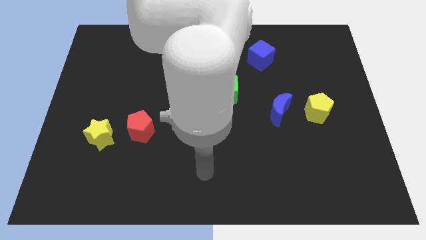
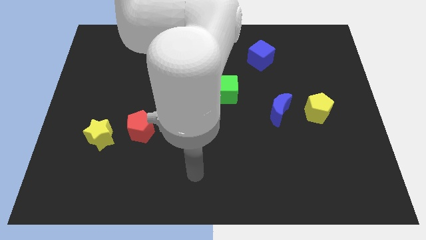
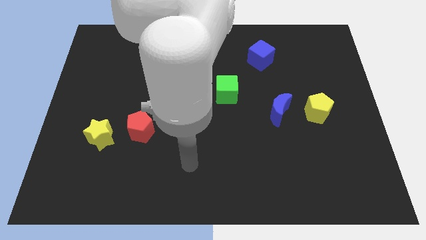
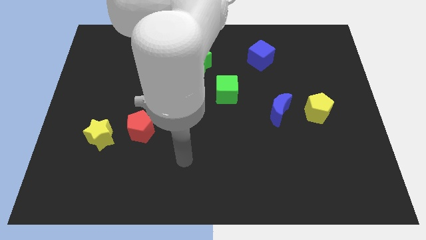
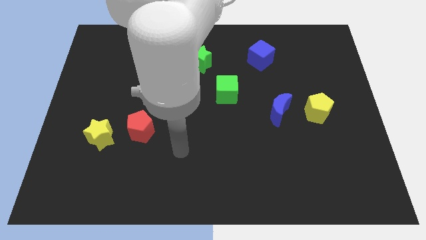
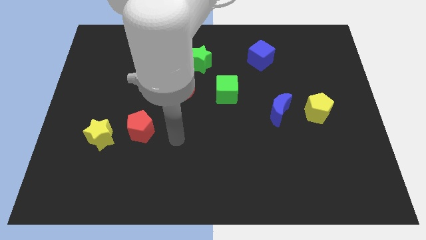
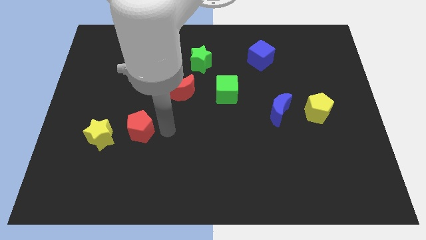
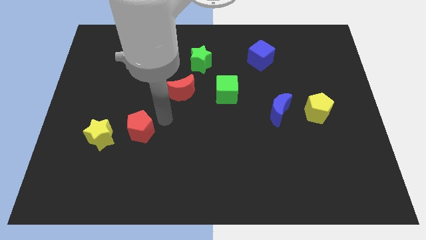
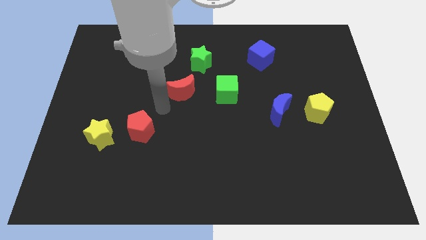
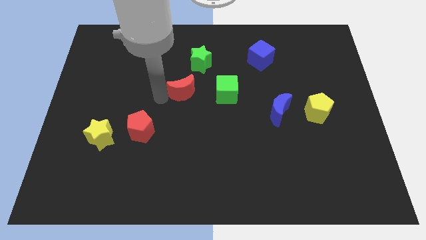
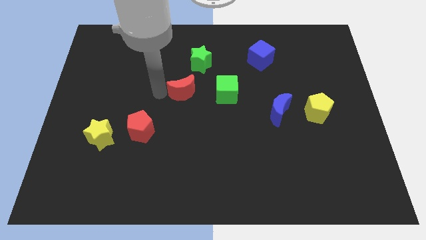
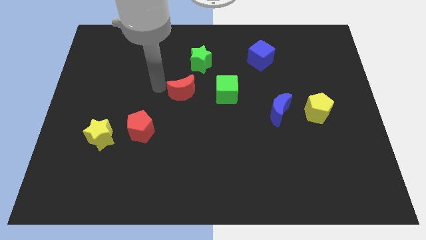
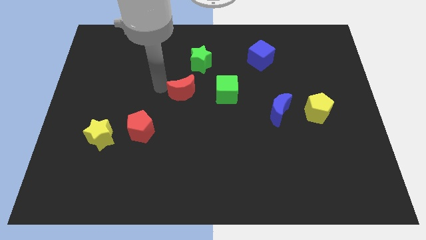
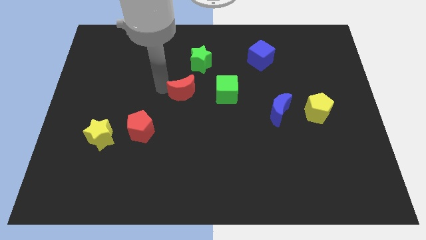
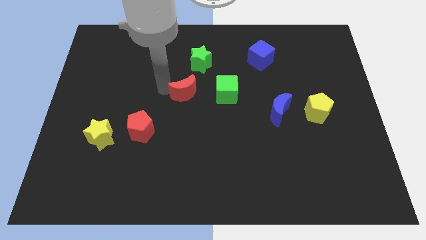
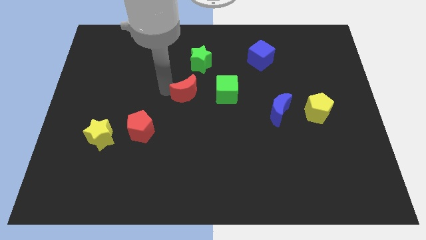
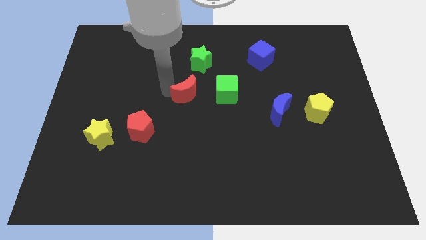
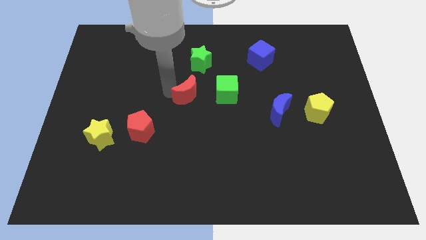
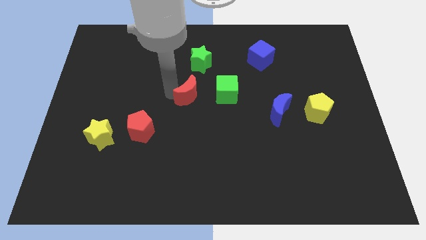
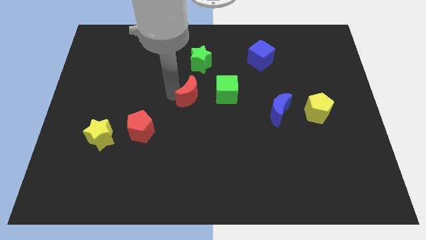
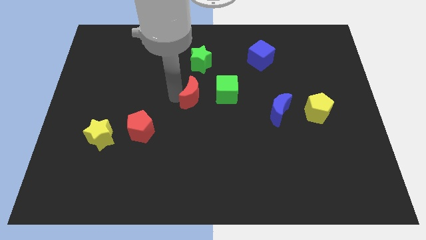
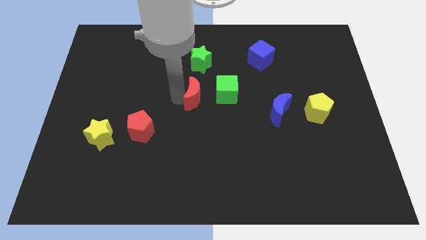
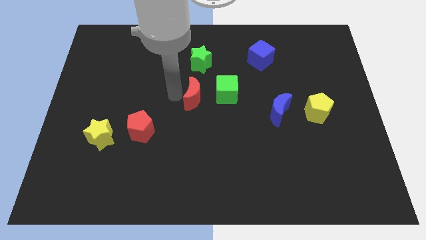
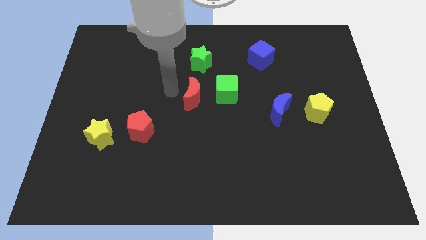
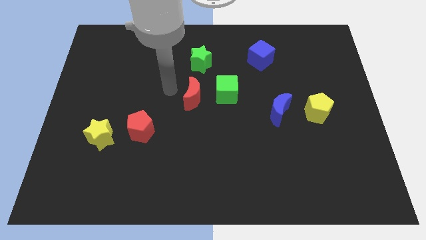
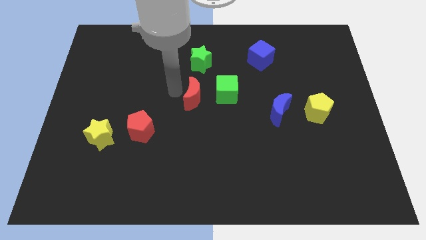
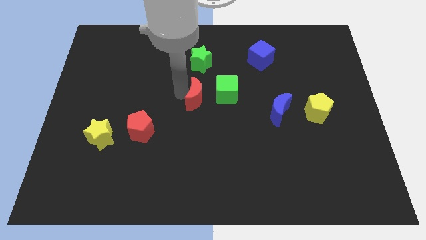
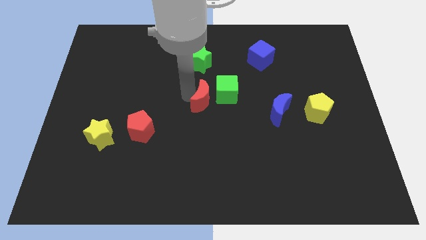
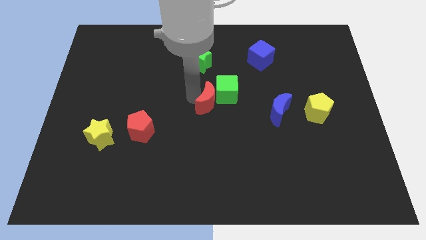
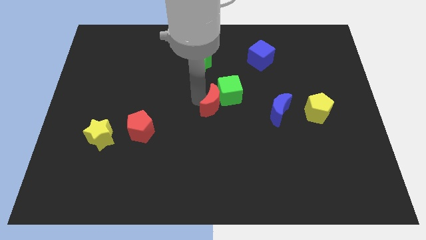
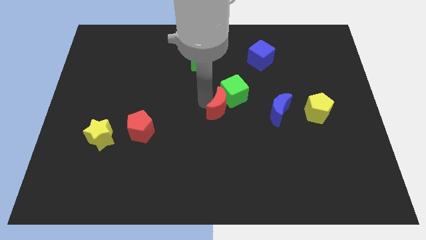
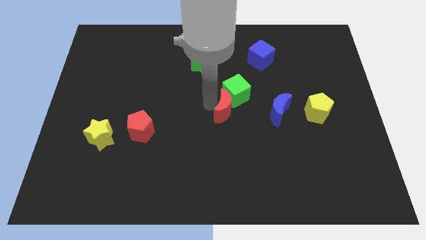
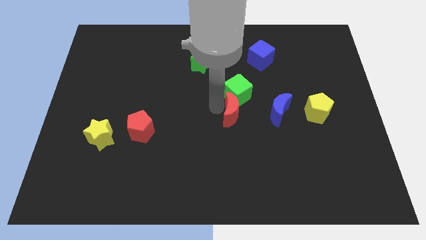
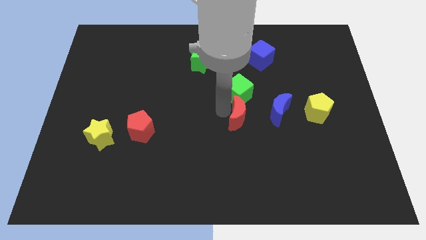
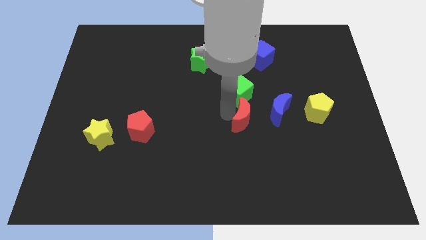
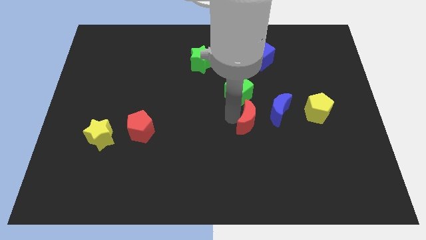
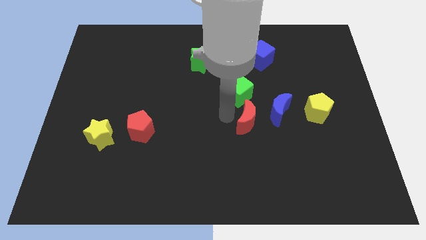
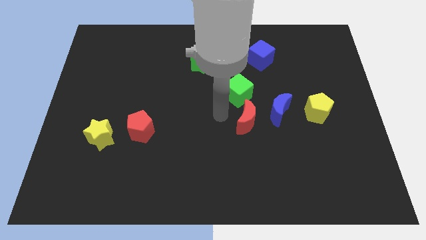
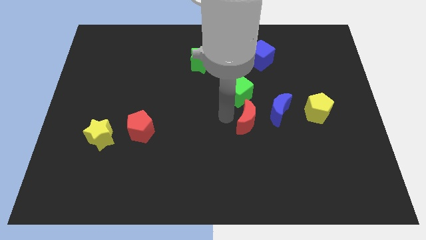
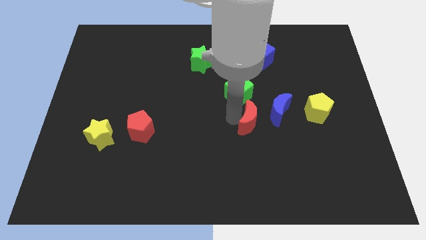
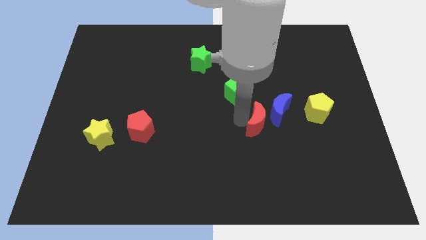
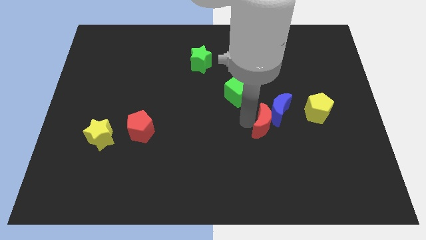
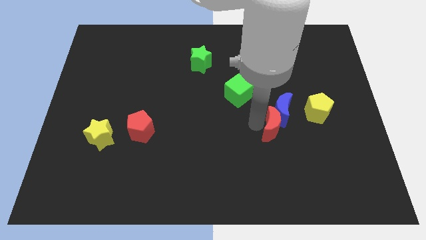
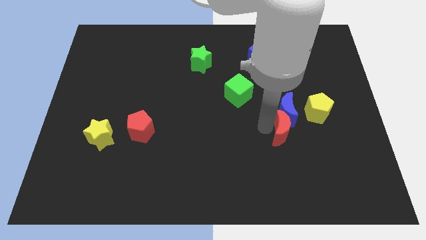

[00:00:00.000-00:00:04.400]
move the red moon to the bottom right of the blue moon

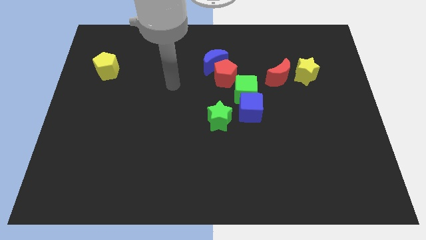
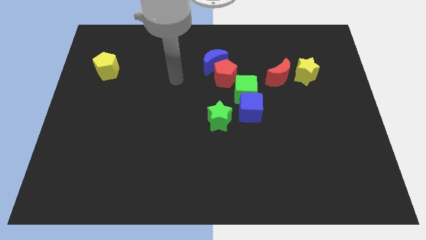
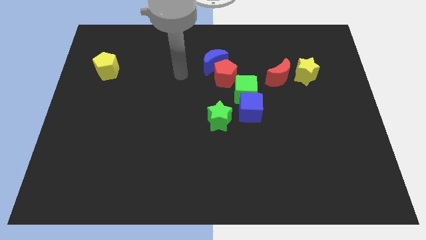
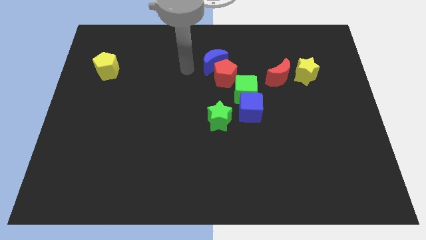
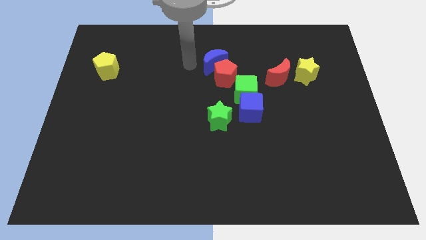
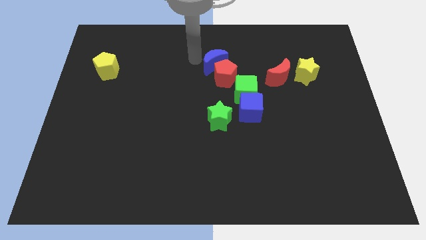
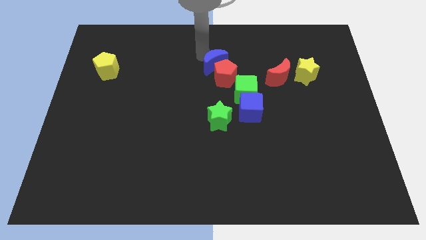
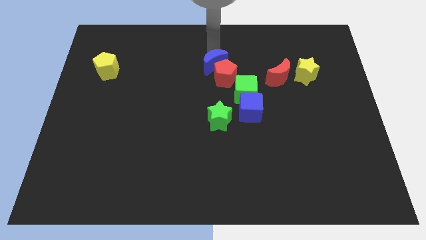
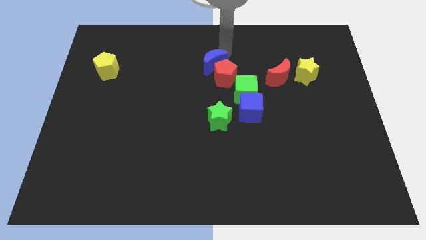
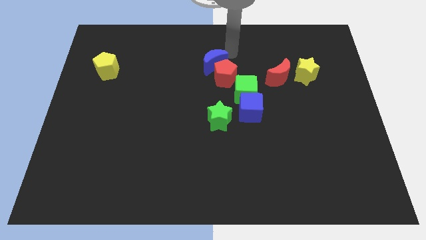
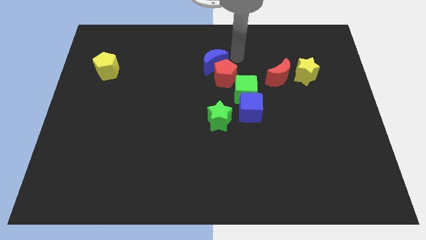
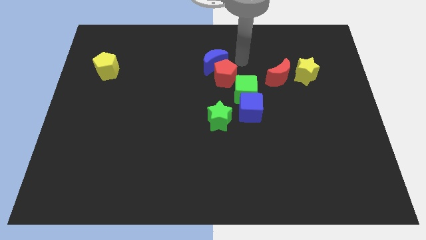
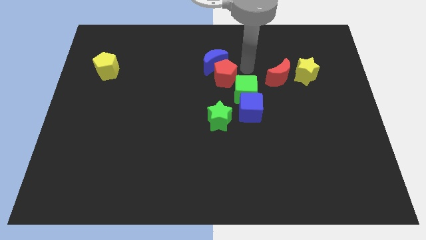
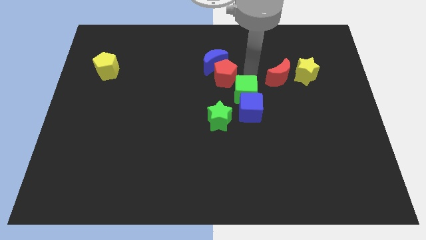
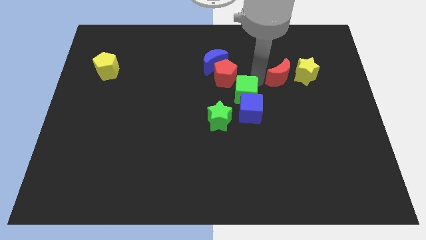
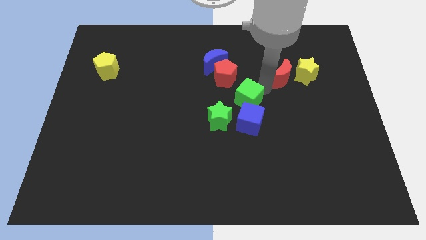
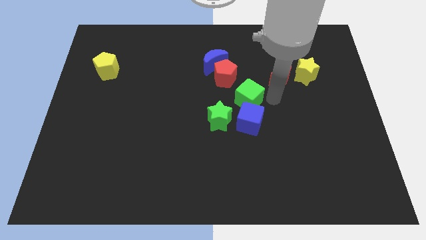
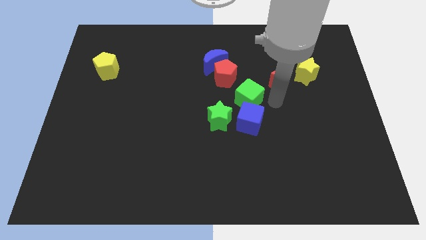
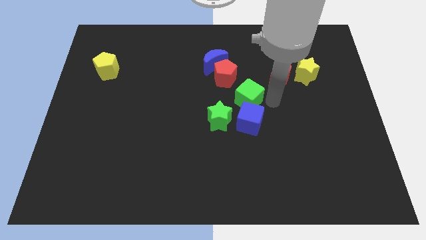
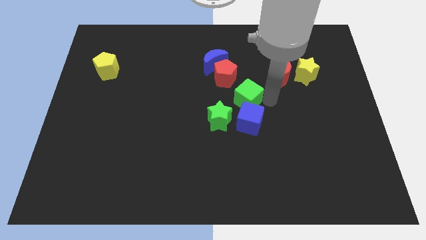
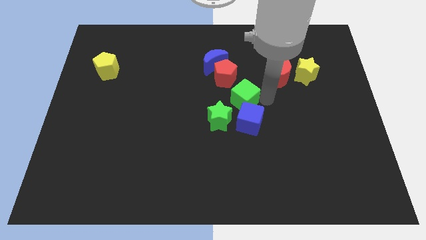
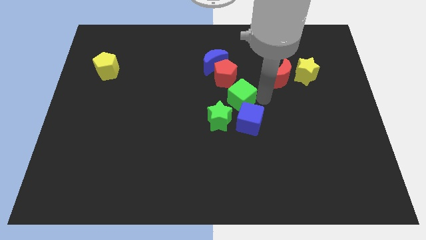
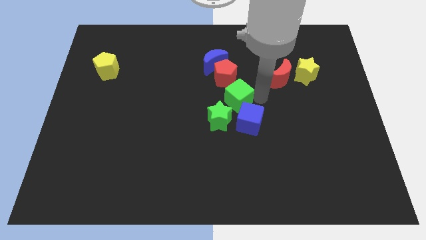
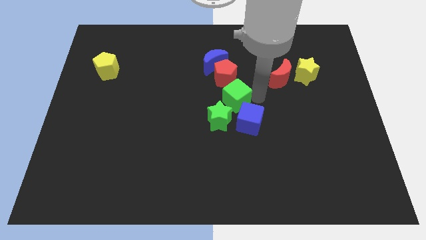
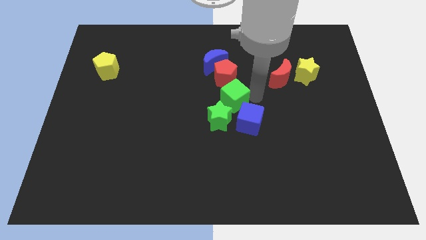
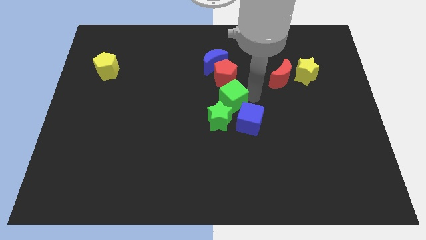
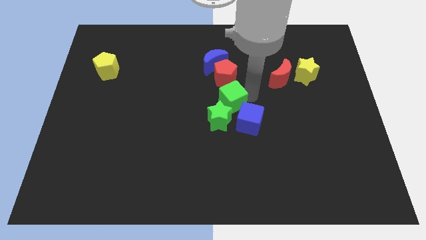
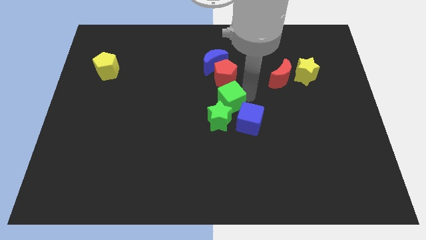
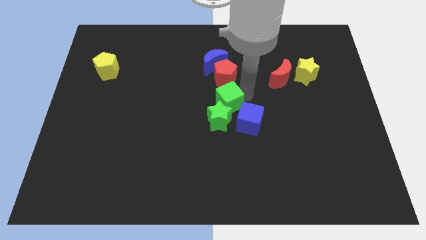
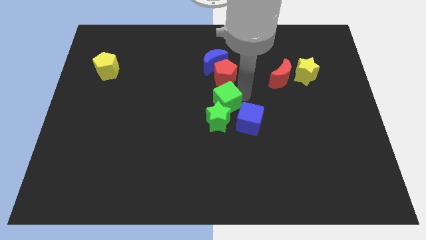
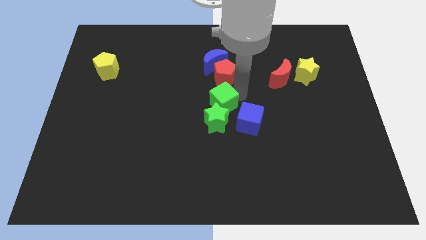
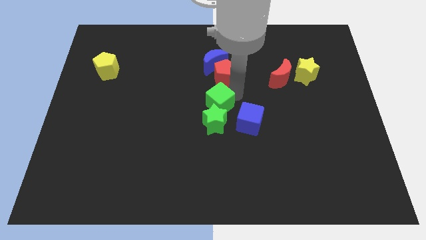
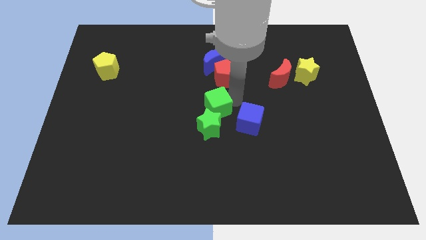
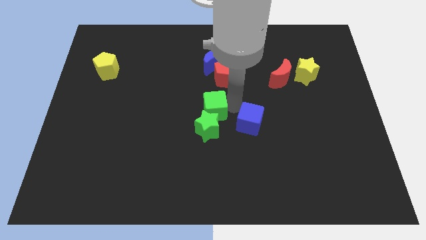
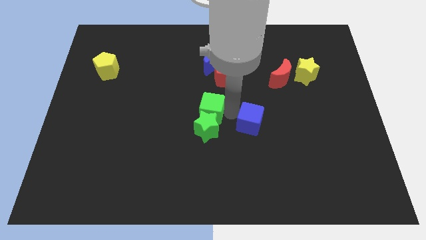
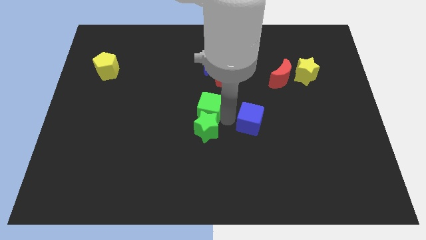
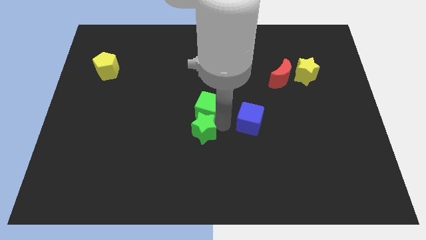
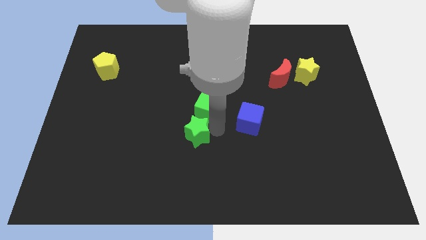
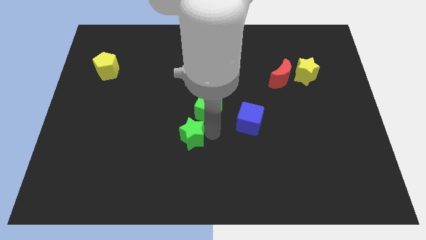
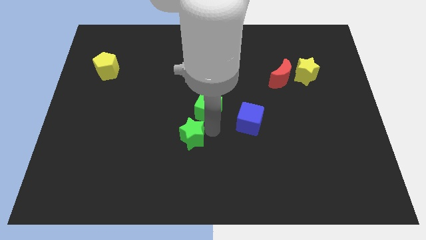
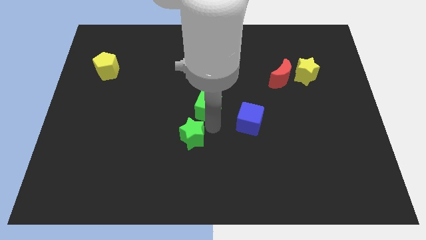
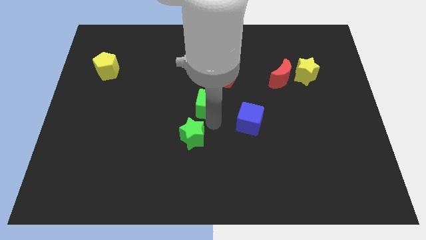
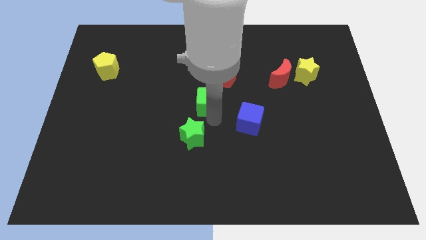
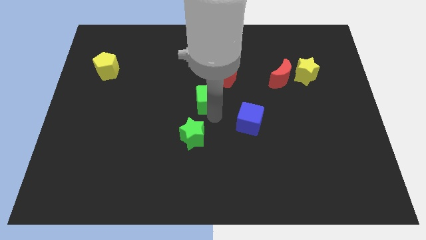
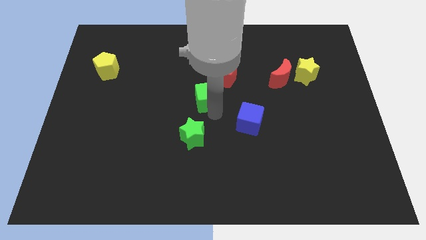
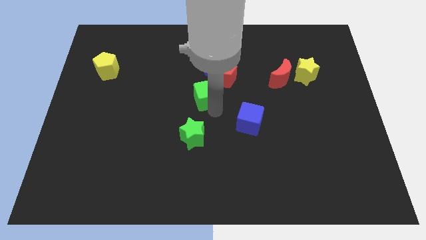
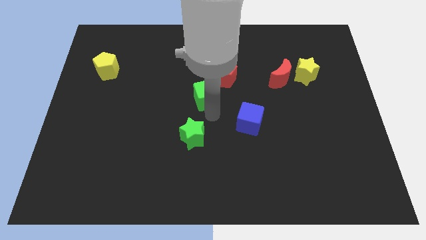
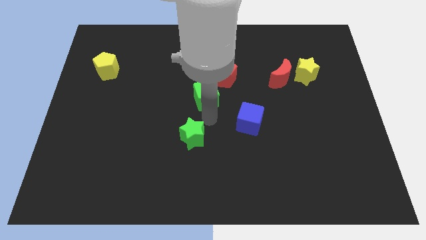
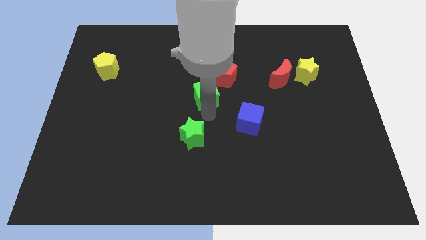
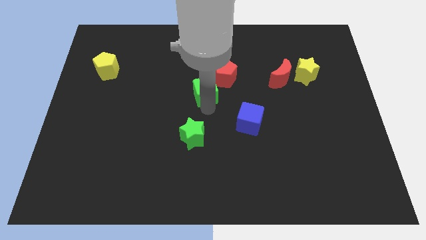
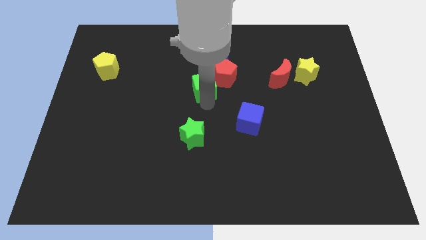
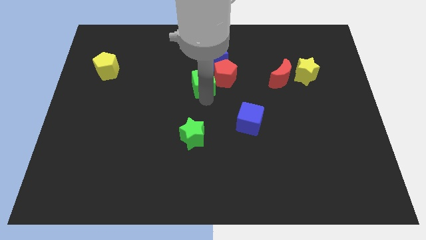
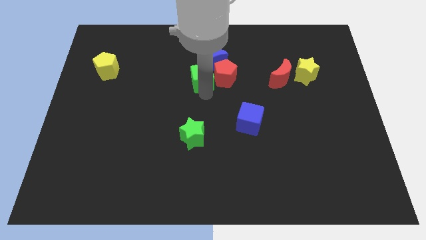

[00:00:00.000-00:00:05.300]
push the green cube to the top left side of the red pentagon
